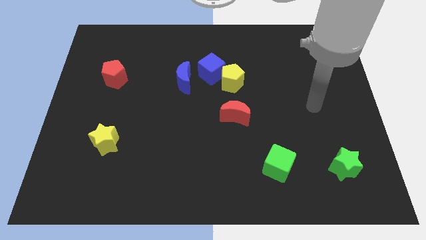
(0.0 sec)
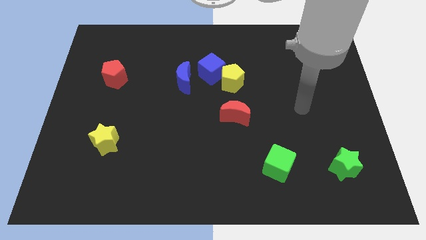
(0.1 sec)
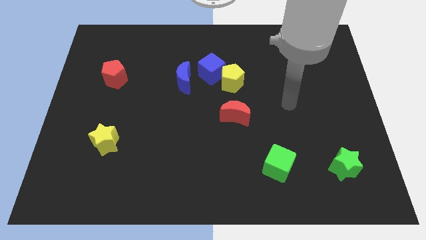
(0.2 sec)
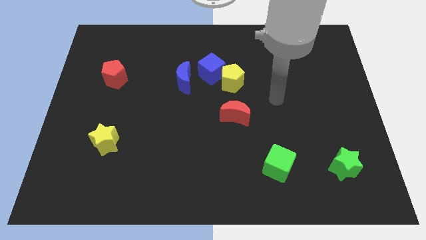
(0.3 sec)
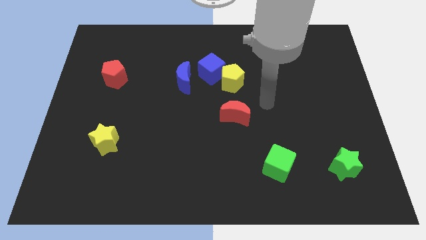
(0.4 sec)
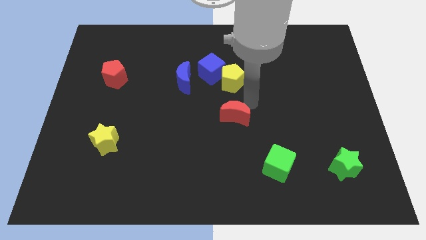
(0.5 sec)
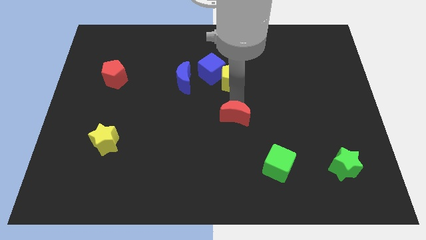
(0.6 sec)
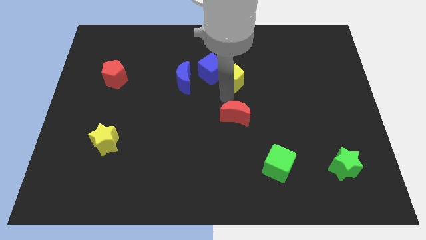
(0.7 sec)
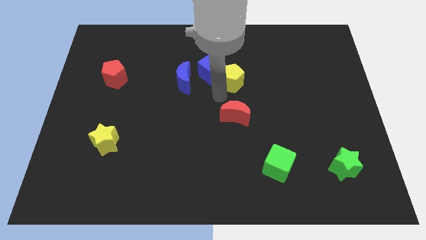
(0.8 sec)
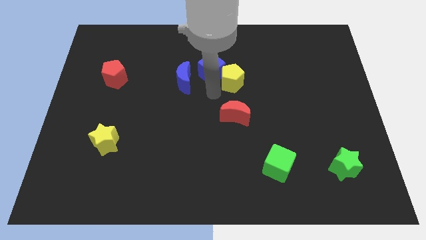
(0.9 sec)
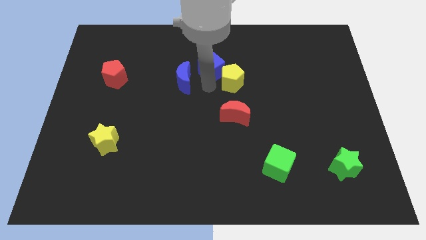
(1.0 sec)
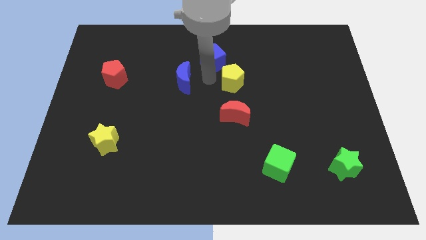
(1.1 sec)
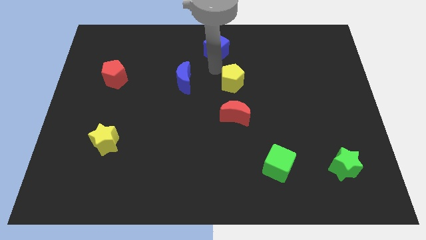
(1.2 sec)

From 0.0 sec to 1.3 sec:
separate the yellow pentagon from the blue cube

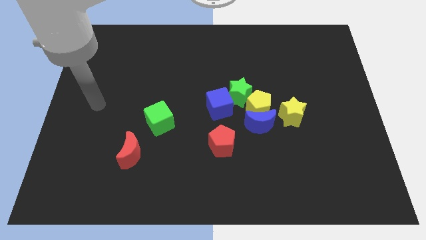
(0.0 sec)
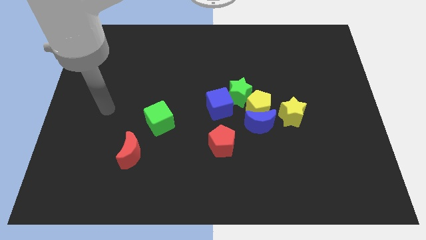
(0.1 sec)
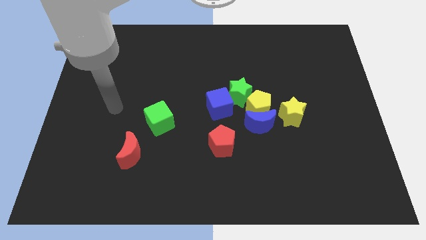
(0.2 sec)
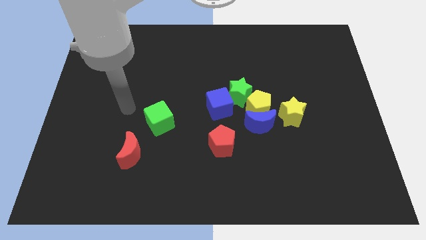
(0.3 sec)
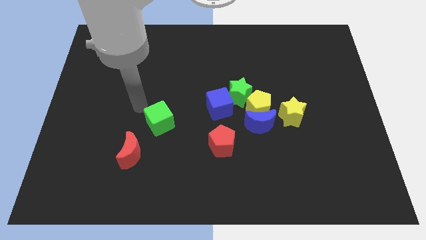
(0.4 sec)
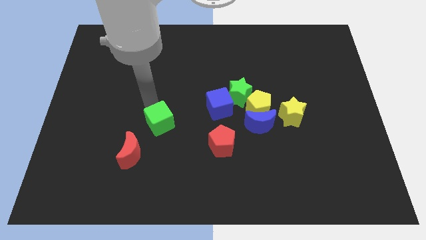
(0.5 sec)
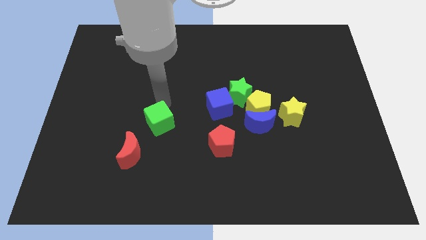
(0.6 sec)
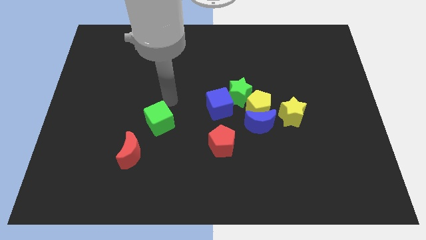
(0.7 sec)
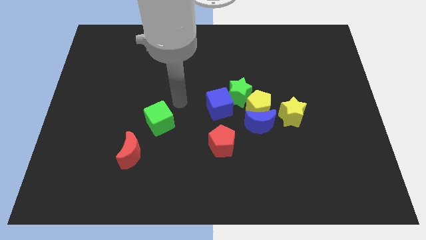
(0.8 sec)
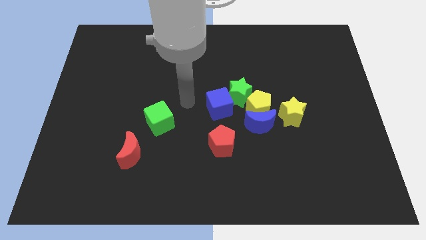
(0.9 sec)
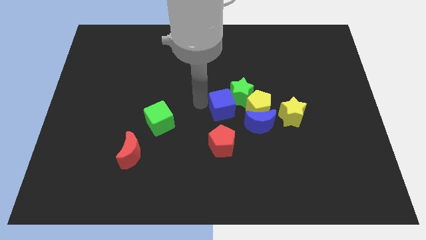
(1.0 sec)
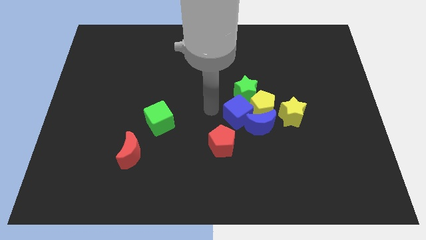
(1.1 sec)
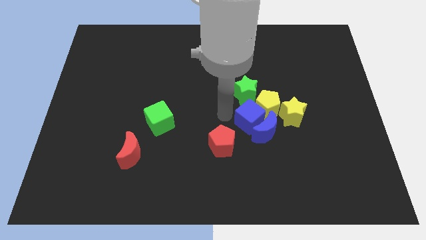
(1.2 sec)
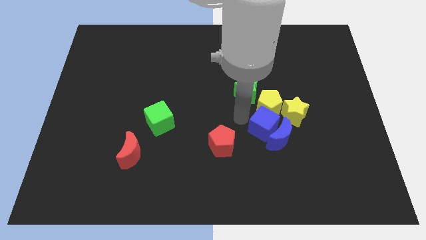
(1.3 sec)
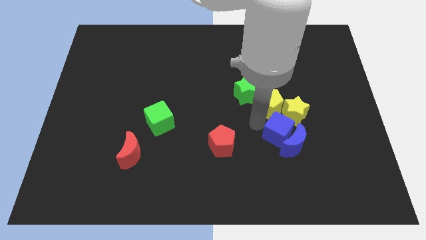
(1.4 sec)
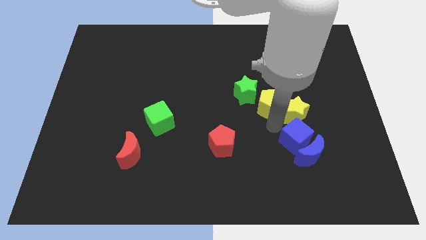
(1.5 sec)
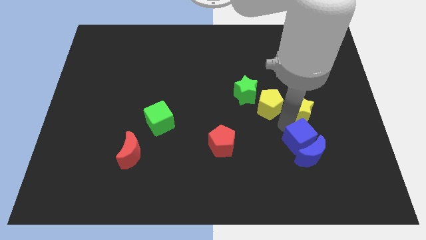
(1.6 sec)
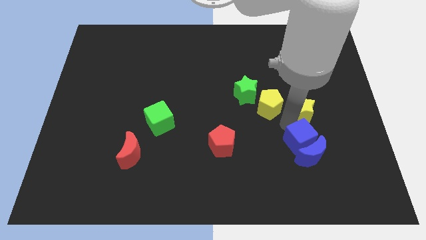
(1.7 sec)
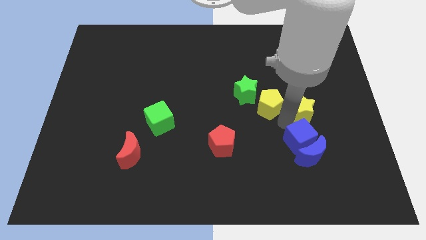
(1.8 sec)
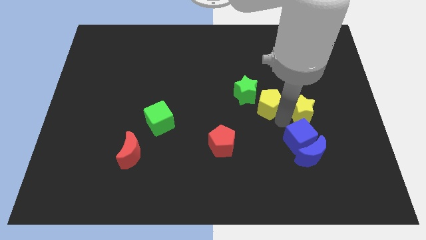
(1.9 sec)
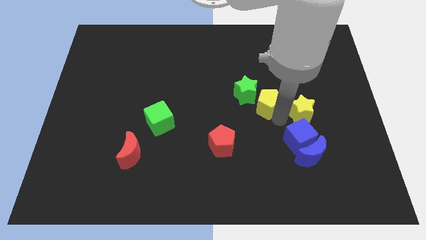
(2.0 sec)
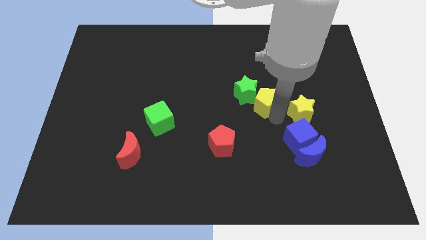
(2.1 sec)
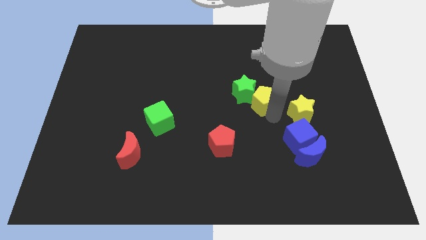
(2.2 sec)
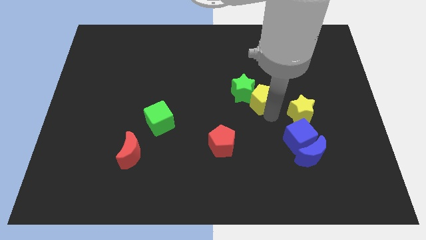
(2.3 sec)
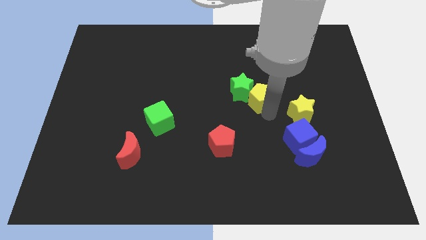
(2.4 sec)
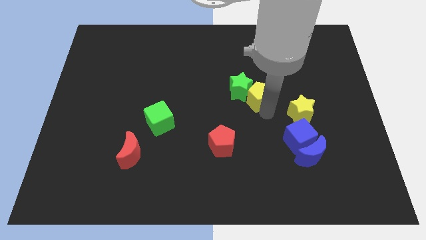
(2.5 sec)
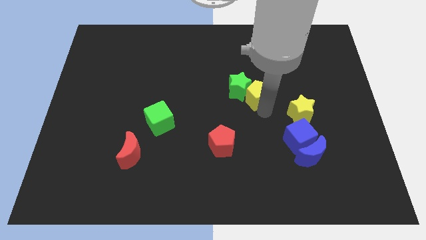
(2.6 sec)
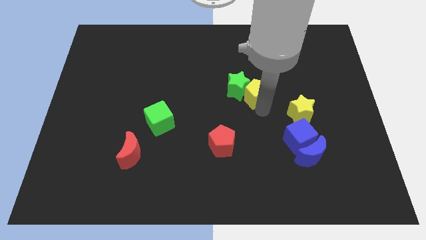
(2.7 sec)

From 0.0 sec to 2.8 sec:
move the yellow pentagon away from the clump

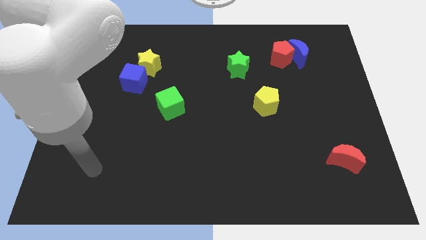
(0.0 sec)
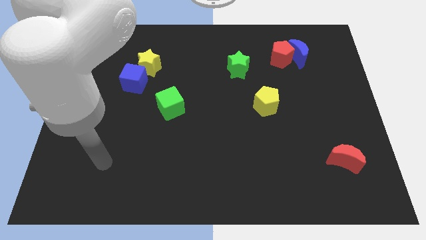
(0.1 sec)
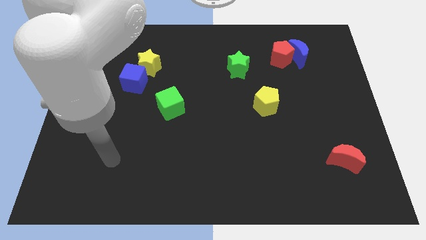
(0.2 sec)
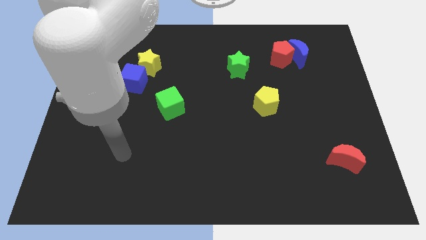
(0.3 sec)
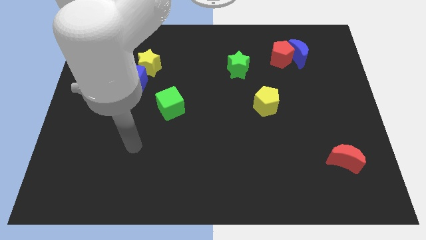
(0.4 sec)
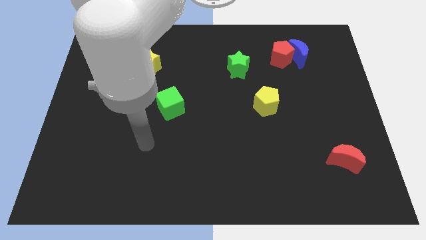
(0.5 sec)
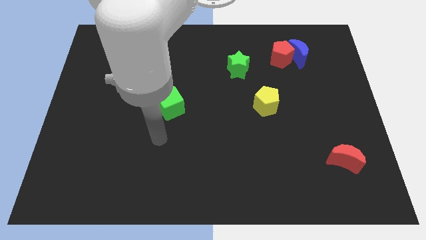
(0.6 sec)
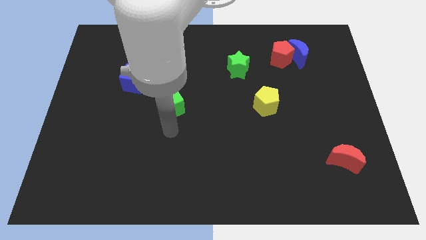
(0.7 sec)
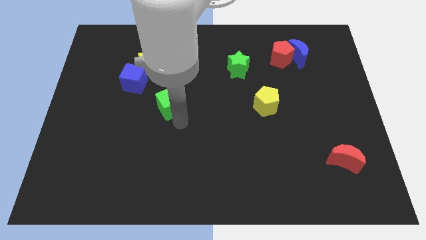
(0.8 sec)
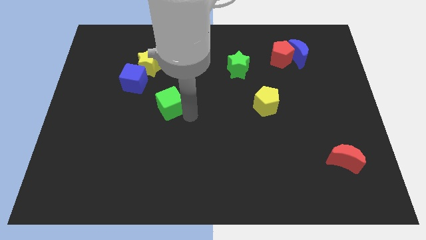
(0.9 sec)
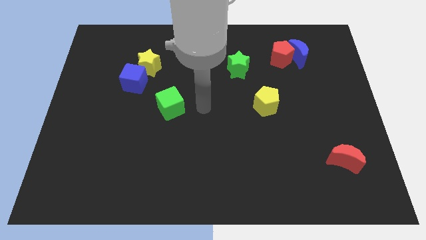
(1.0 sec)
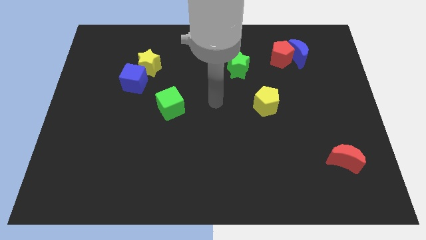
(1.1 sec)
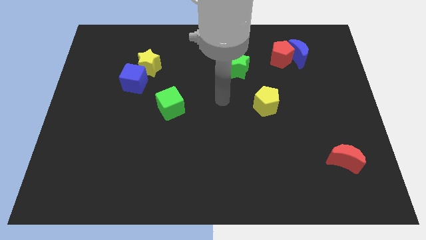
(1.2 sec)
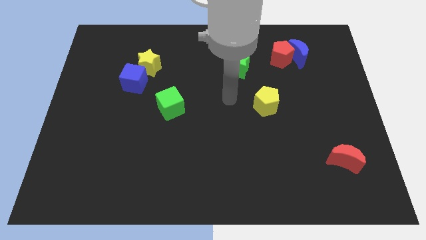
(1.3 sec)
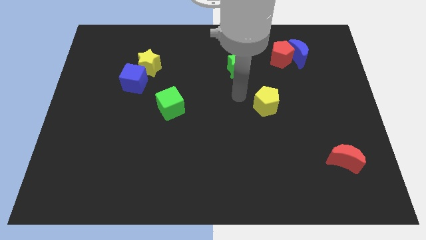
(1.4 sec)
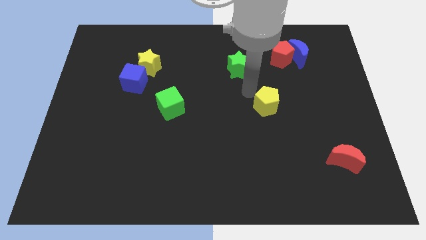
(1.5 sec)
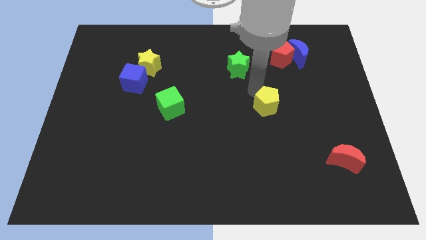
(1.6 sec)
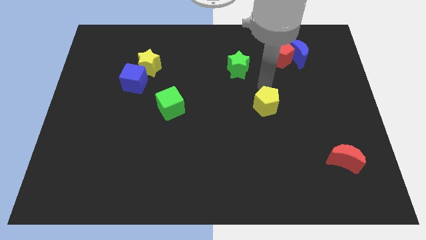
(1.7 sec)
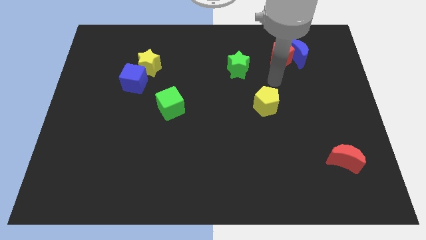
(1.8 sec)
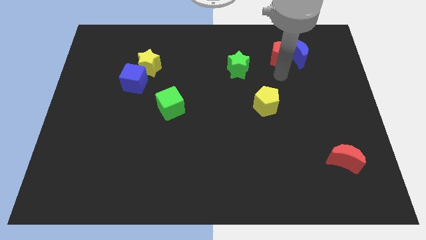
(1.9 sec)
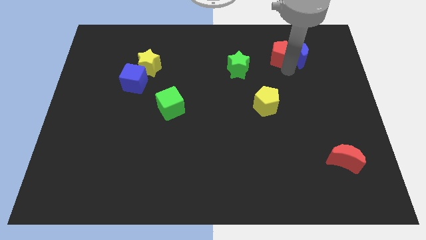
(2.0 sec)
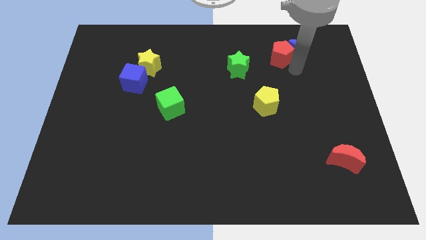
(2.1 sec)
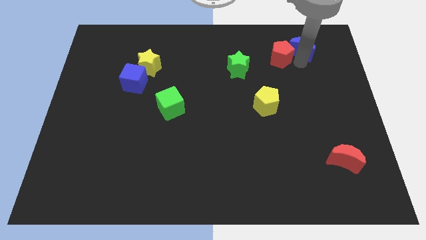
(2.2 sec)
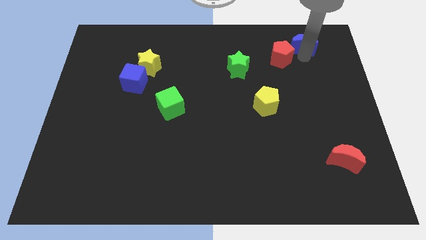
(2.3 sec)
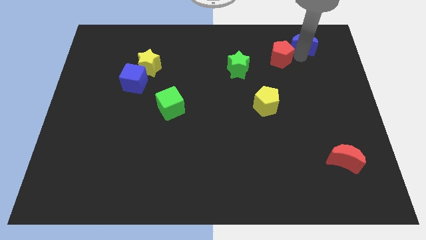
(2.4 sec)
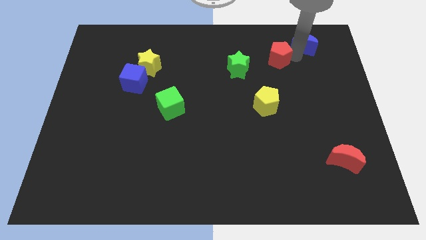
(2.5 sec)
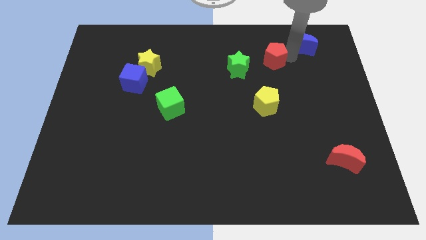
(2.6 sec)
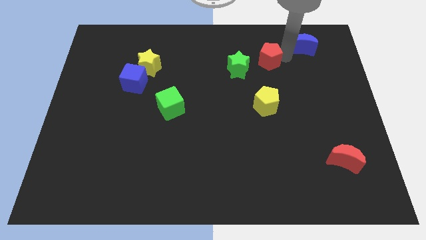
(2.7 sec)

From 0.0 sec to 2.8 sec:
pull the red pentagon apart from the blue moon

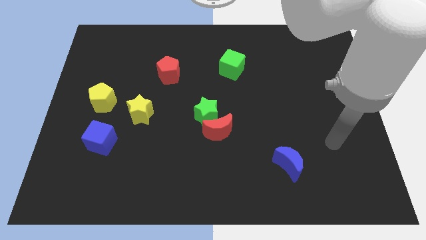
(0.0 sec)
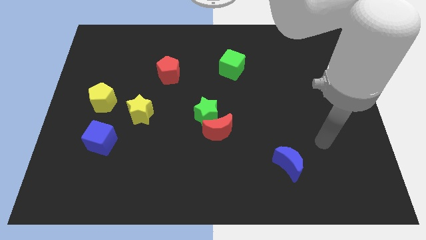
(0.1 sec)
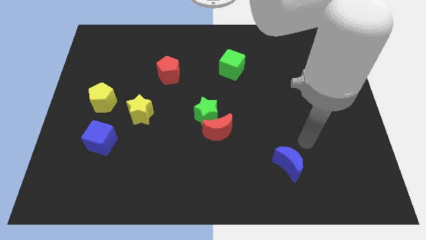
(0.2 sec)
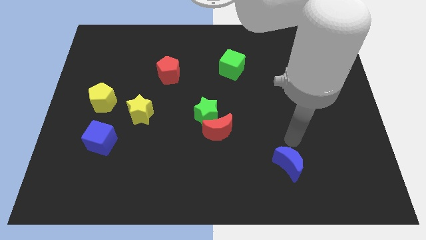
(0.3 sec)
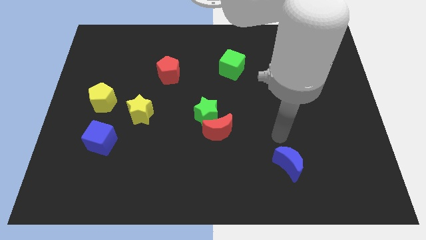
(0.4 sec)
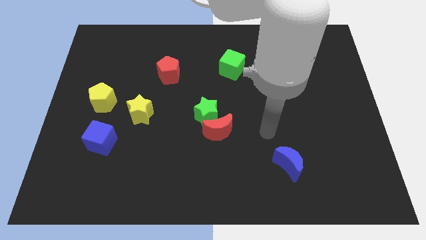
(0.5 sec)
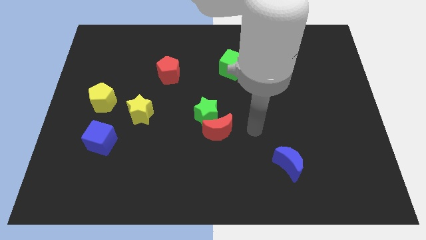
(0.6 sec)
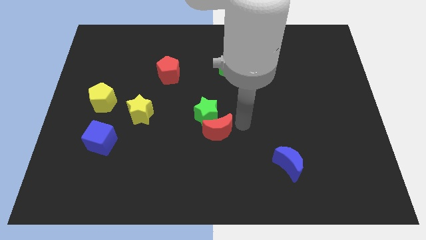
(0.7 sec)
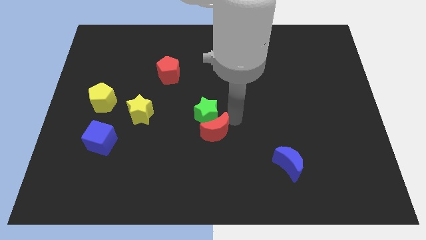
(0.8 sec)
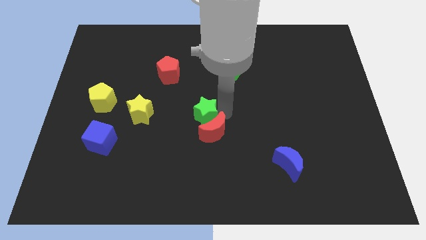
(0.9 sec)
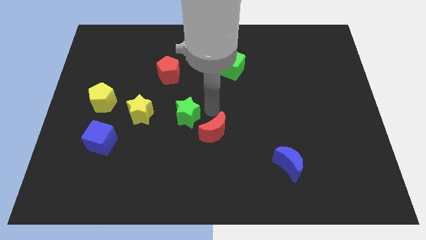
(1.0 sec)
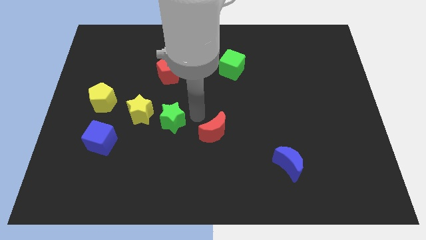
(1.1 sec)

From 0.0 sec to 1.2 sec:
separate the red moon from the green star

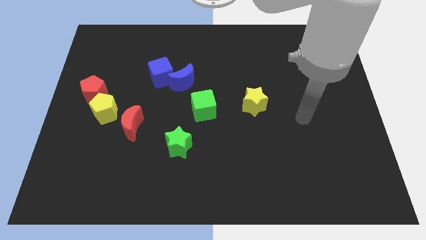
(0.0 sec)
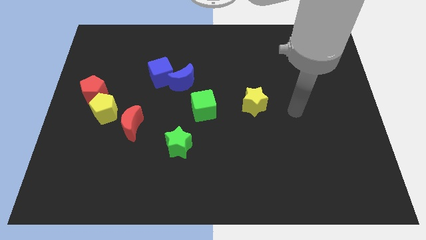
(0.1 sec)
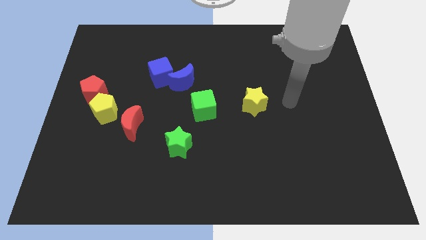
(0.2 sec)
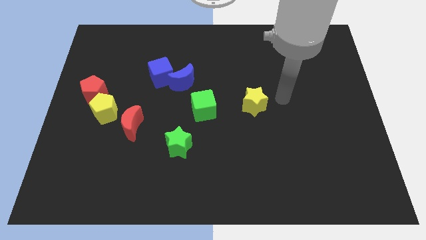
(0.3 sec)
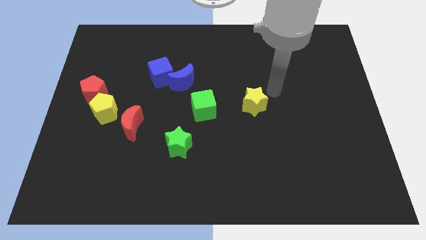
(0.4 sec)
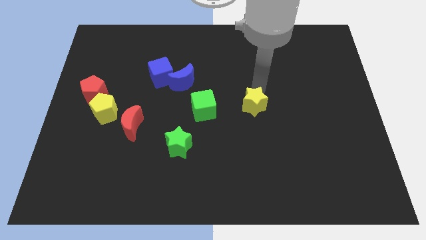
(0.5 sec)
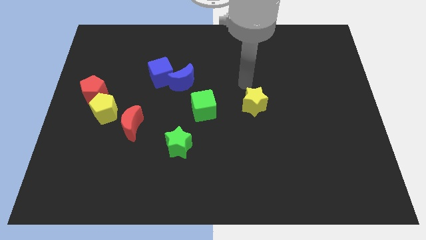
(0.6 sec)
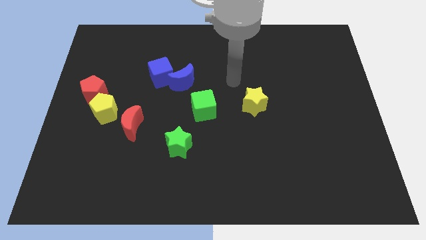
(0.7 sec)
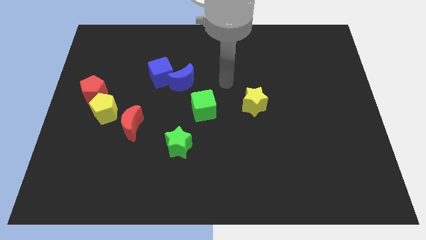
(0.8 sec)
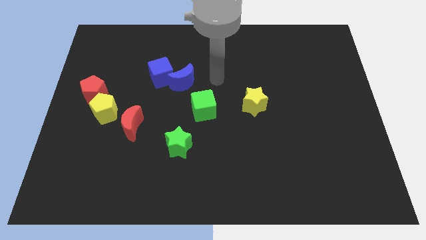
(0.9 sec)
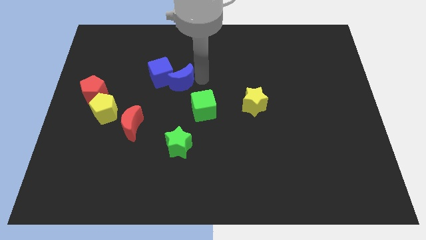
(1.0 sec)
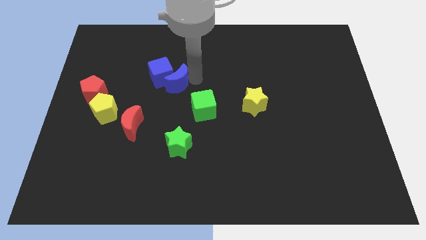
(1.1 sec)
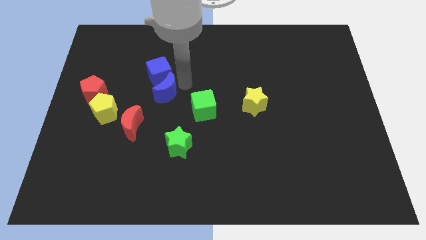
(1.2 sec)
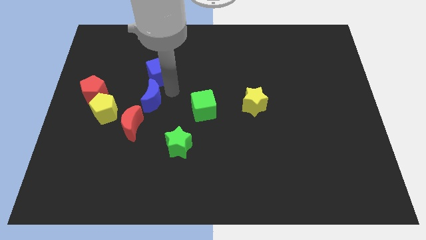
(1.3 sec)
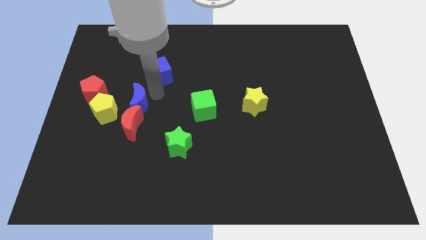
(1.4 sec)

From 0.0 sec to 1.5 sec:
separate the blue cube from the blue moon
